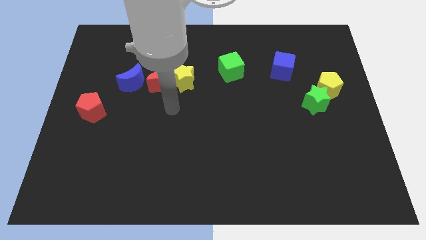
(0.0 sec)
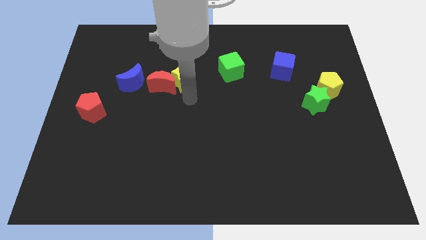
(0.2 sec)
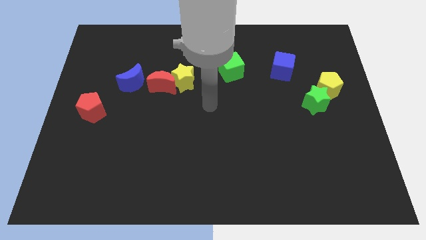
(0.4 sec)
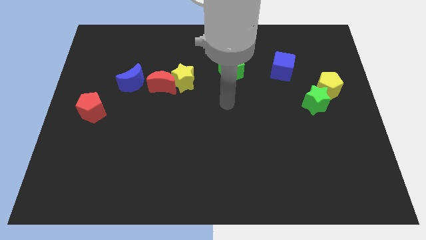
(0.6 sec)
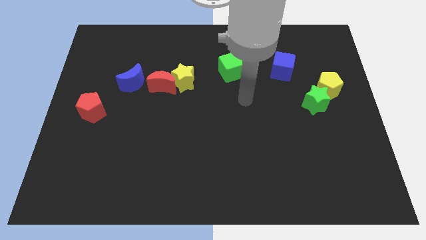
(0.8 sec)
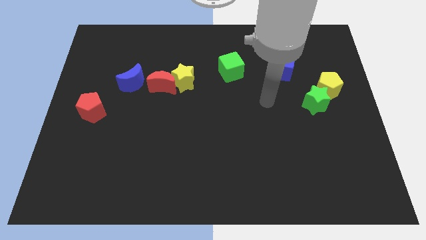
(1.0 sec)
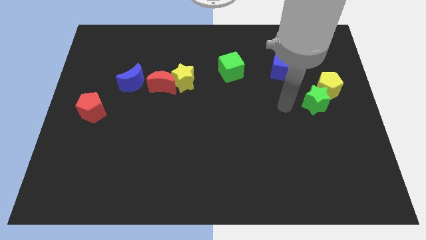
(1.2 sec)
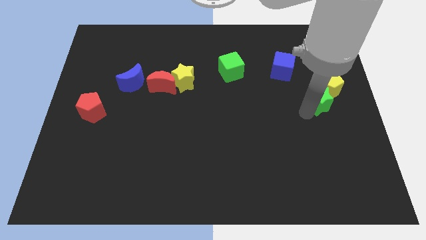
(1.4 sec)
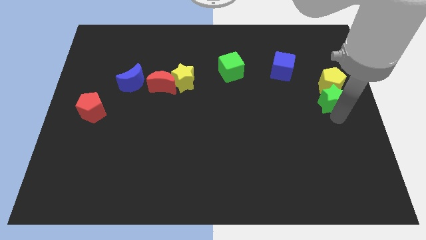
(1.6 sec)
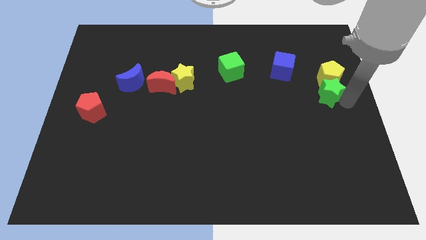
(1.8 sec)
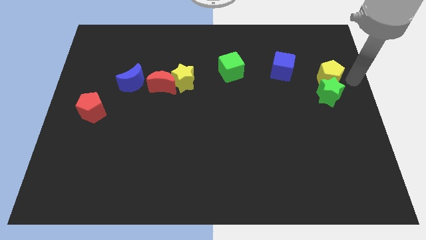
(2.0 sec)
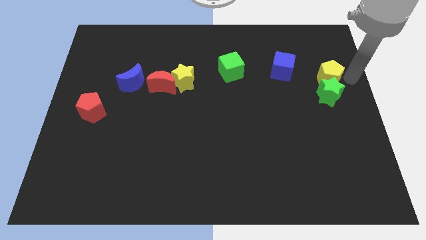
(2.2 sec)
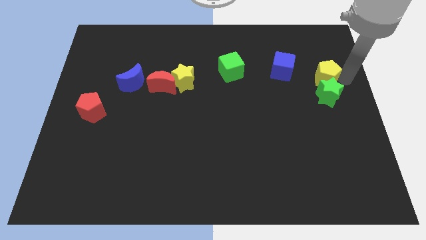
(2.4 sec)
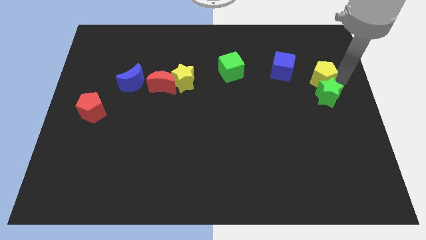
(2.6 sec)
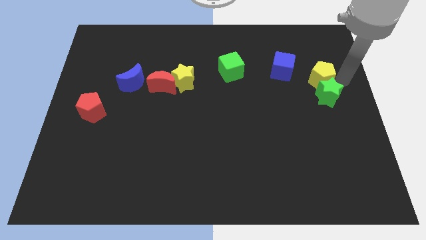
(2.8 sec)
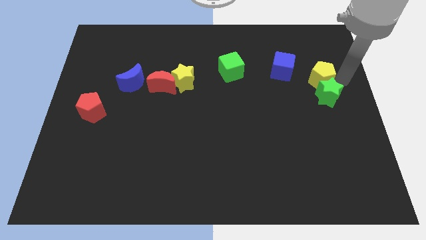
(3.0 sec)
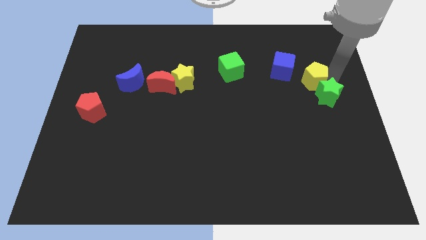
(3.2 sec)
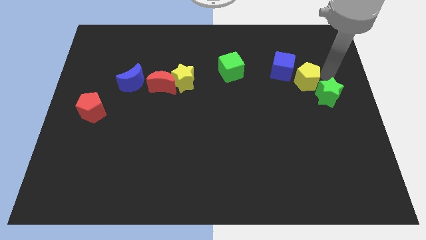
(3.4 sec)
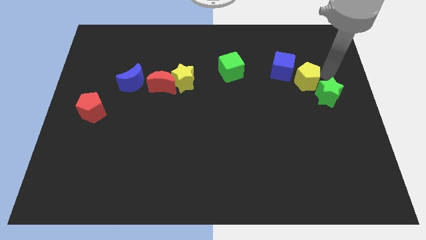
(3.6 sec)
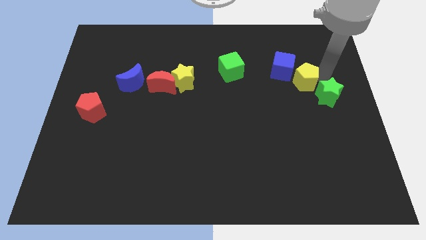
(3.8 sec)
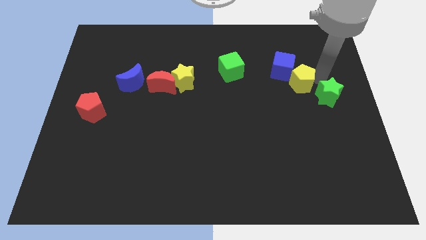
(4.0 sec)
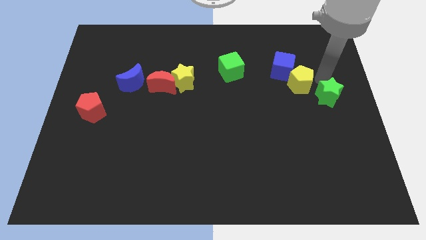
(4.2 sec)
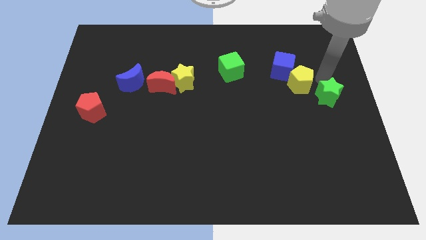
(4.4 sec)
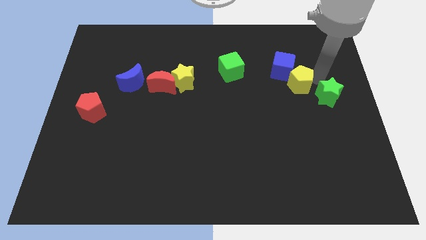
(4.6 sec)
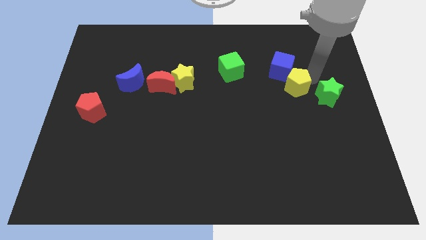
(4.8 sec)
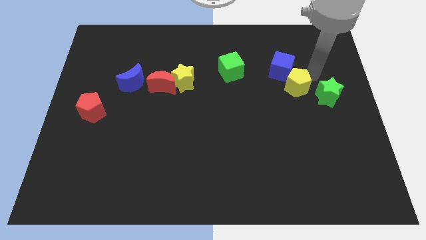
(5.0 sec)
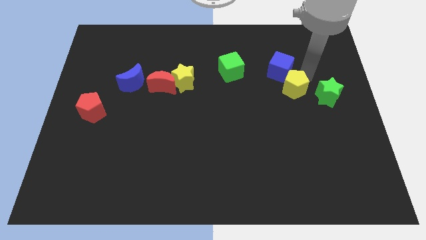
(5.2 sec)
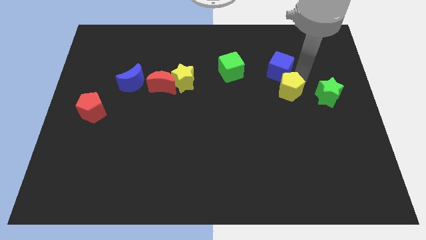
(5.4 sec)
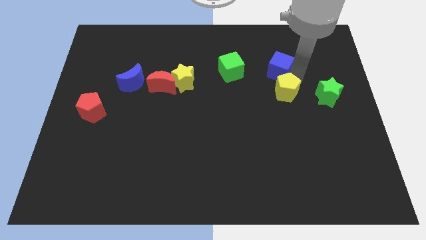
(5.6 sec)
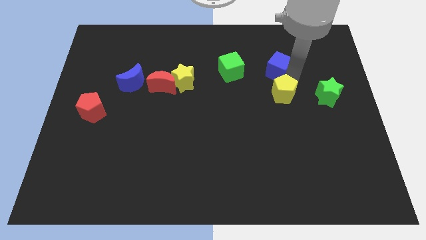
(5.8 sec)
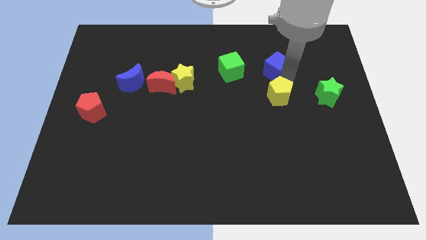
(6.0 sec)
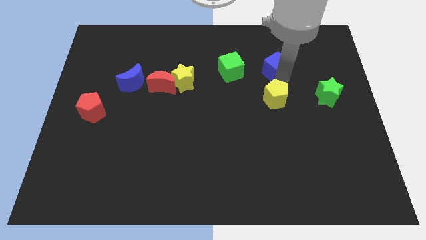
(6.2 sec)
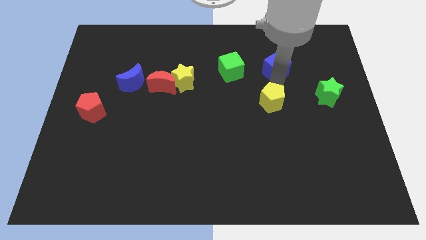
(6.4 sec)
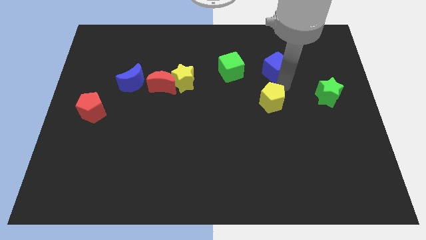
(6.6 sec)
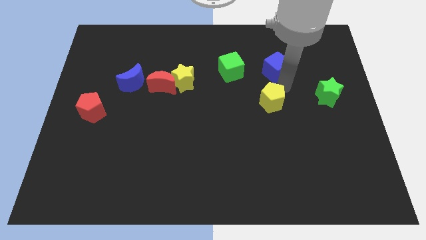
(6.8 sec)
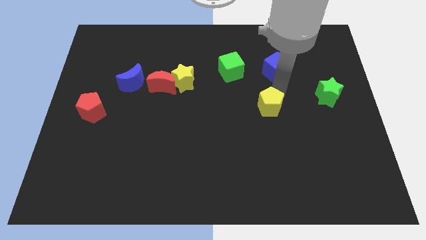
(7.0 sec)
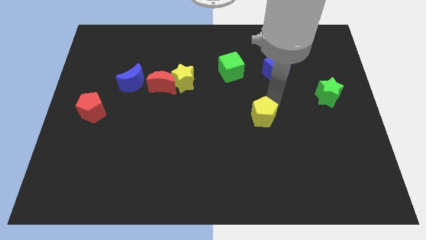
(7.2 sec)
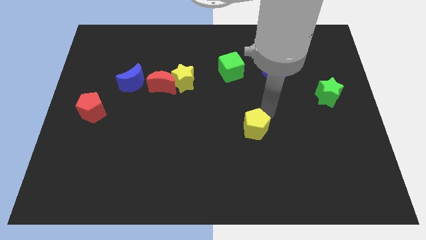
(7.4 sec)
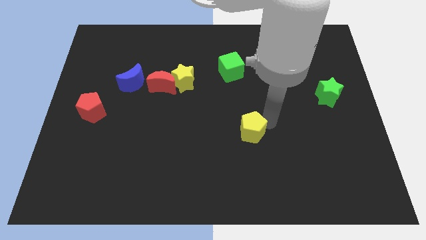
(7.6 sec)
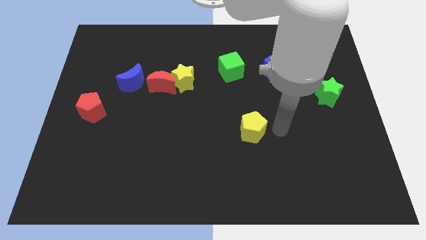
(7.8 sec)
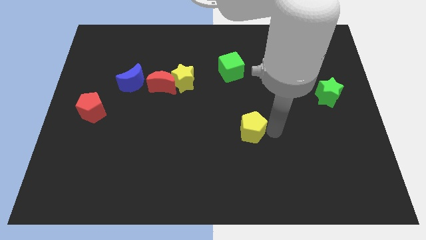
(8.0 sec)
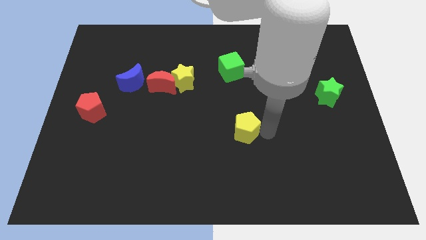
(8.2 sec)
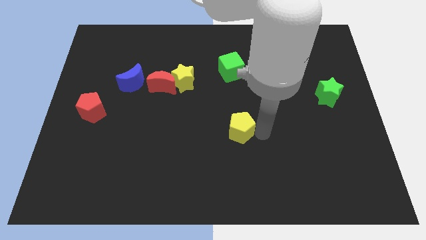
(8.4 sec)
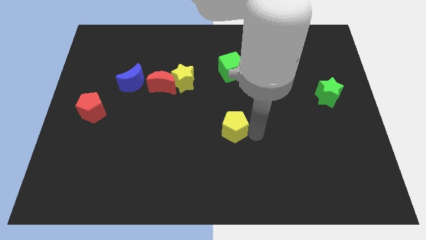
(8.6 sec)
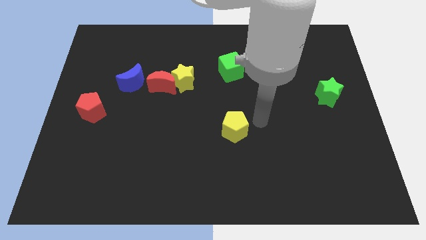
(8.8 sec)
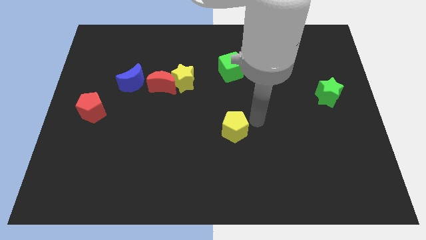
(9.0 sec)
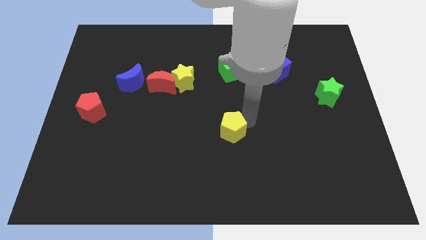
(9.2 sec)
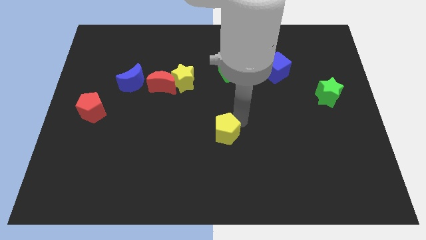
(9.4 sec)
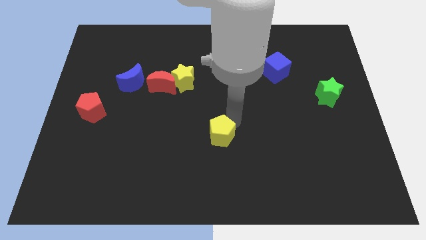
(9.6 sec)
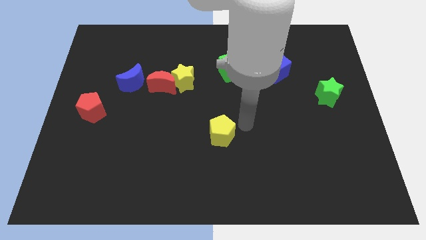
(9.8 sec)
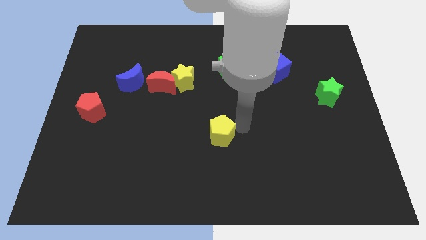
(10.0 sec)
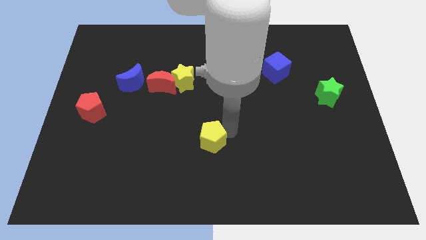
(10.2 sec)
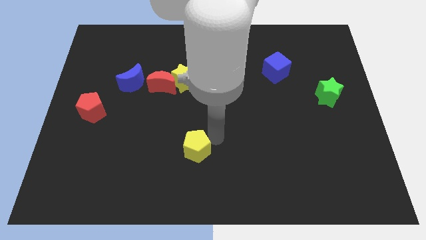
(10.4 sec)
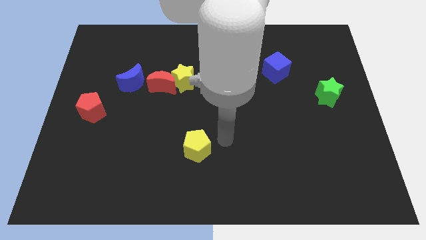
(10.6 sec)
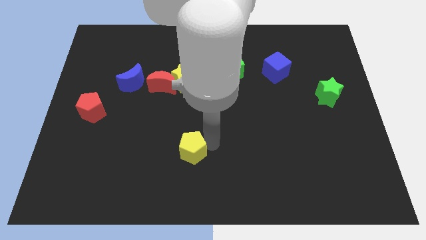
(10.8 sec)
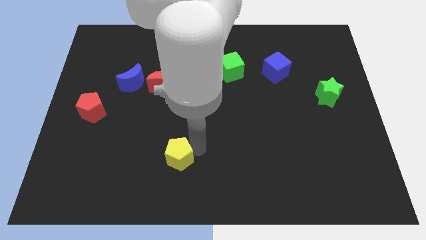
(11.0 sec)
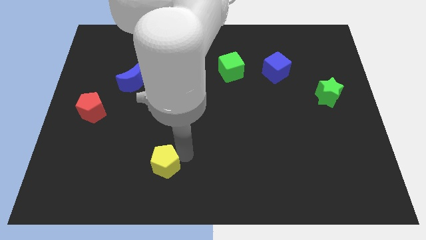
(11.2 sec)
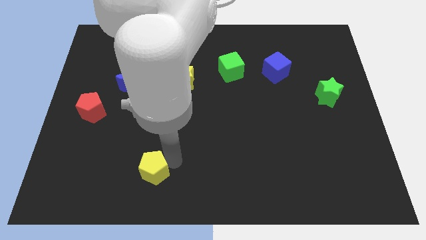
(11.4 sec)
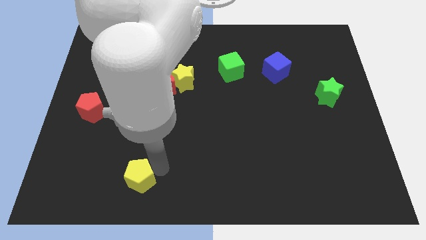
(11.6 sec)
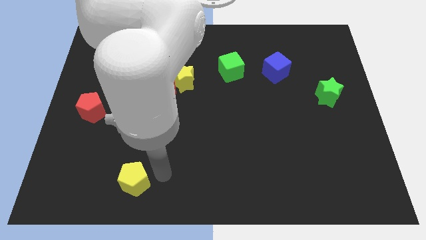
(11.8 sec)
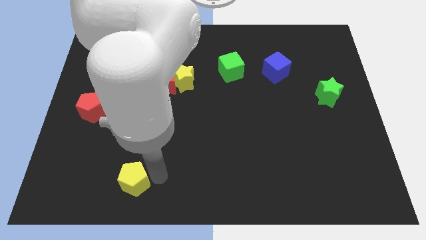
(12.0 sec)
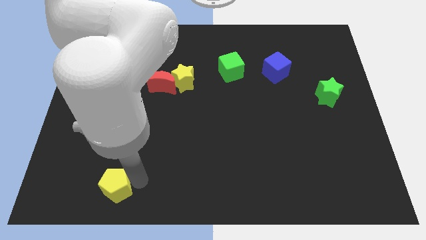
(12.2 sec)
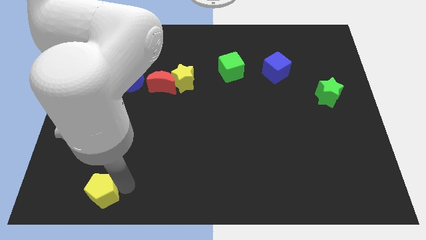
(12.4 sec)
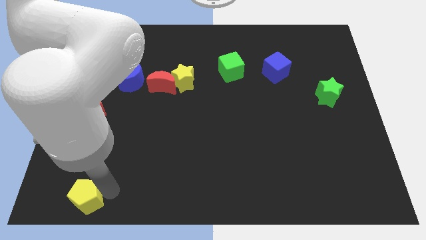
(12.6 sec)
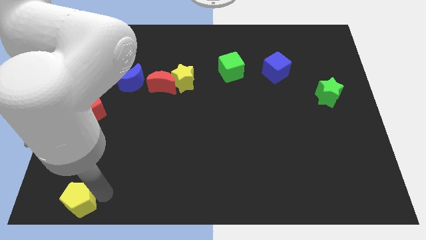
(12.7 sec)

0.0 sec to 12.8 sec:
slide the yellow pentagon to the lower left corner
